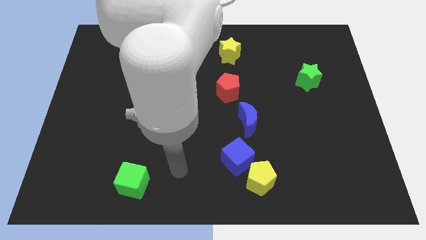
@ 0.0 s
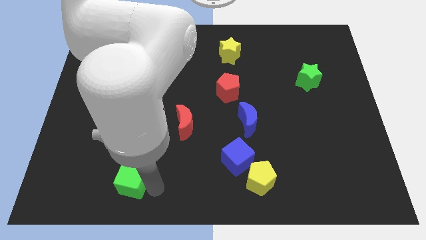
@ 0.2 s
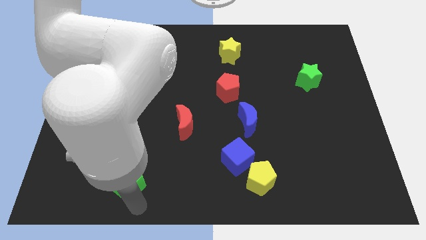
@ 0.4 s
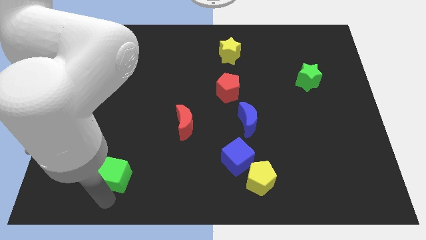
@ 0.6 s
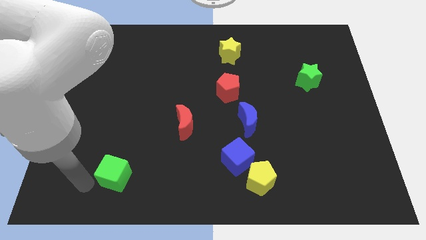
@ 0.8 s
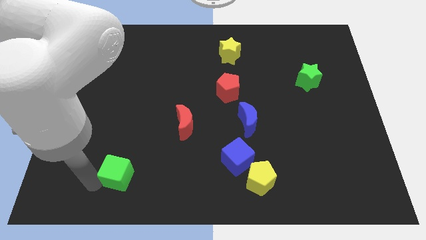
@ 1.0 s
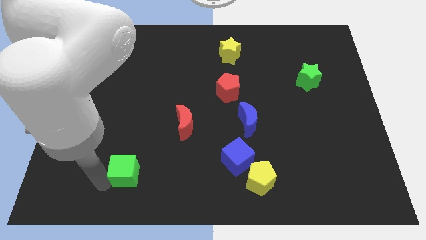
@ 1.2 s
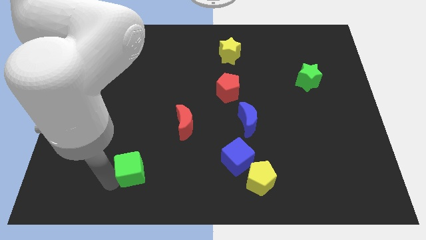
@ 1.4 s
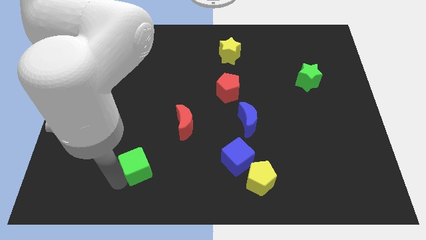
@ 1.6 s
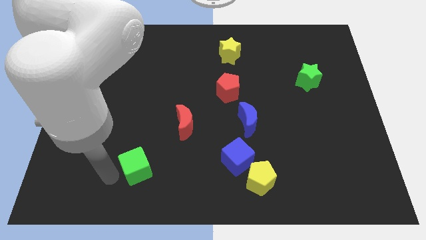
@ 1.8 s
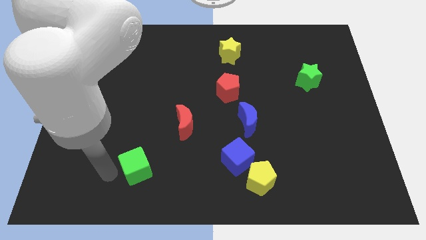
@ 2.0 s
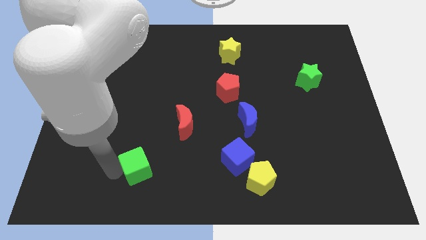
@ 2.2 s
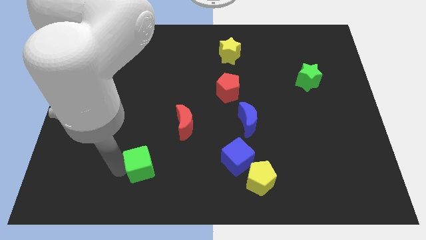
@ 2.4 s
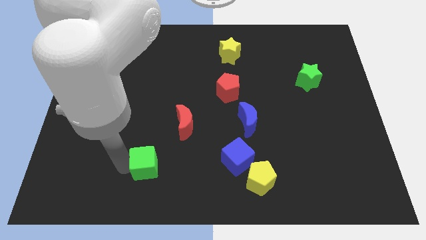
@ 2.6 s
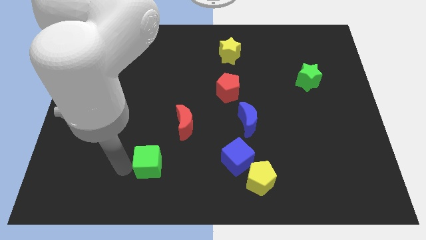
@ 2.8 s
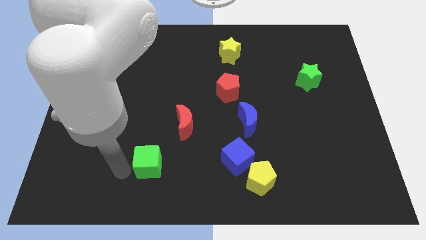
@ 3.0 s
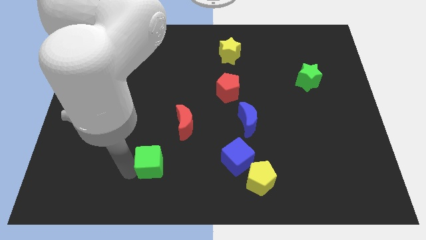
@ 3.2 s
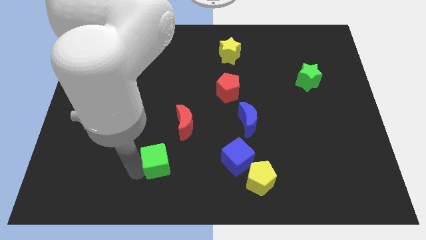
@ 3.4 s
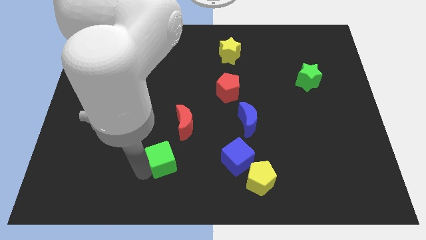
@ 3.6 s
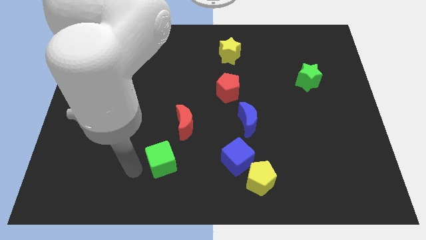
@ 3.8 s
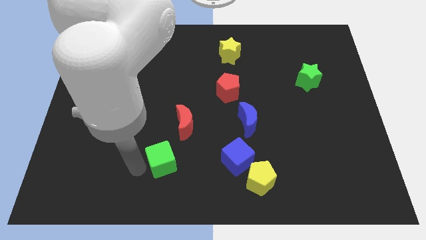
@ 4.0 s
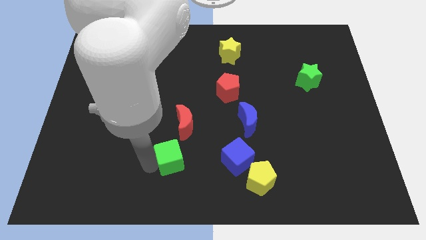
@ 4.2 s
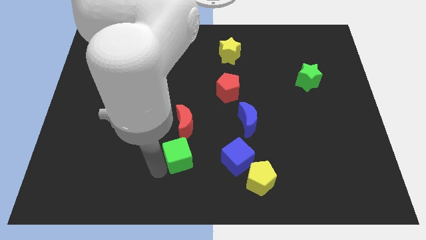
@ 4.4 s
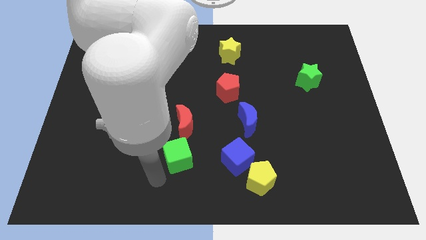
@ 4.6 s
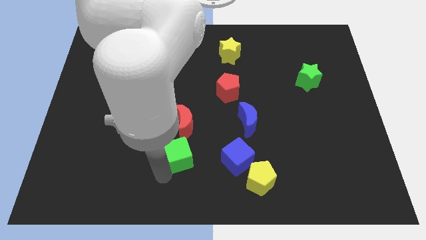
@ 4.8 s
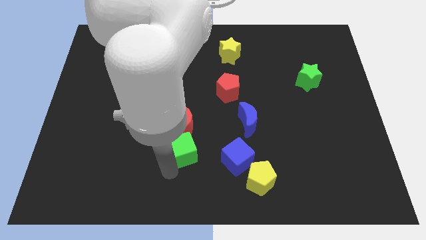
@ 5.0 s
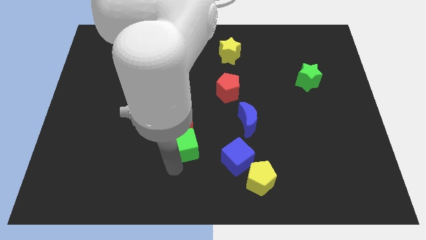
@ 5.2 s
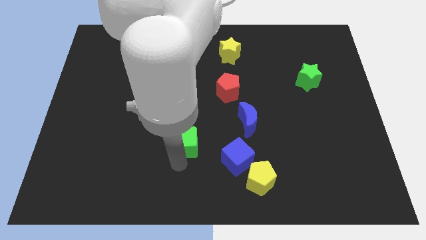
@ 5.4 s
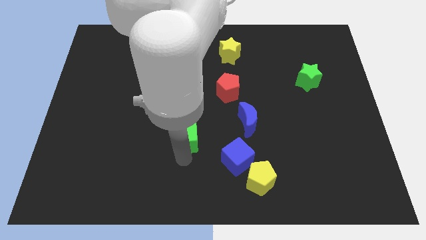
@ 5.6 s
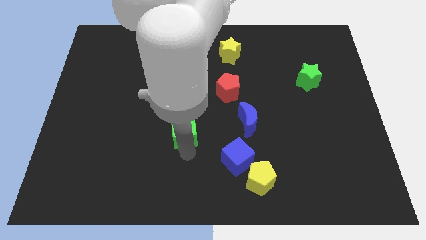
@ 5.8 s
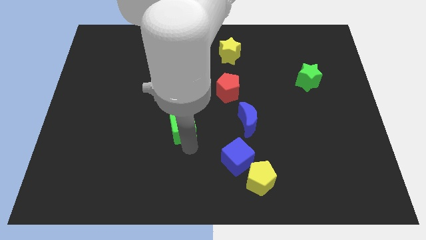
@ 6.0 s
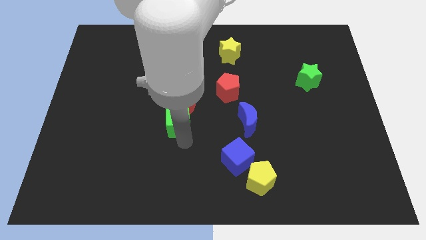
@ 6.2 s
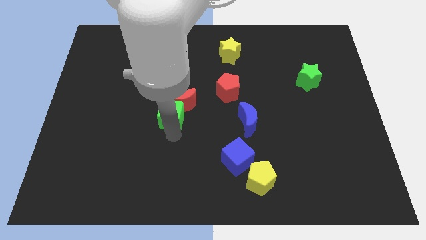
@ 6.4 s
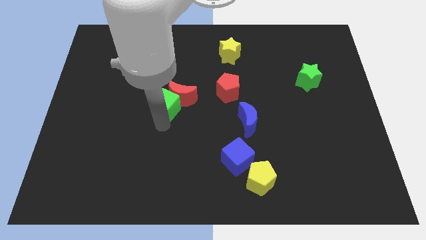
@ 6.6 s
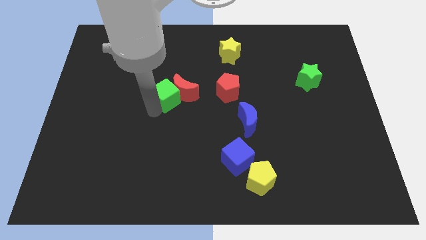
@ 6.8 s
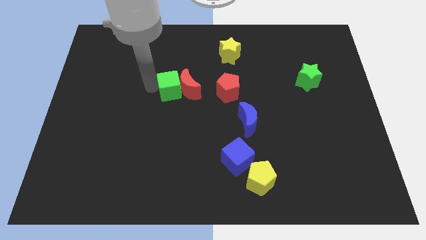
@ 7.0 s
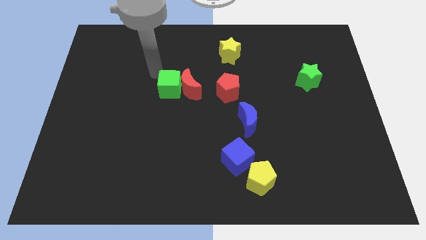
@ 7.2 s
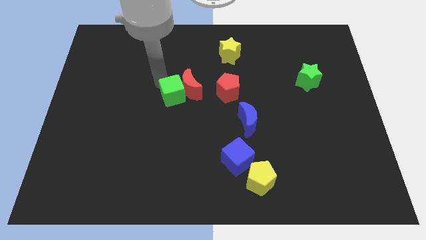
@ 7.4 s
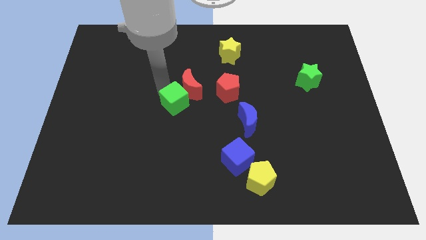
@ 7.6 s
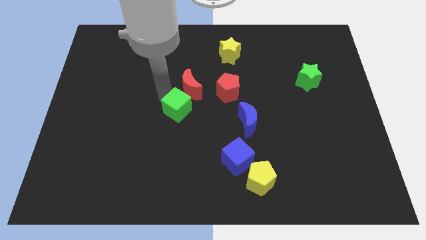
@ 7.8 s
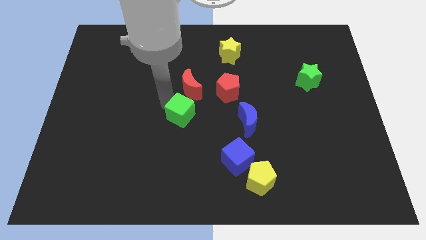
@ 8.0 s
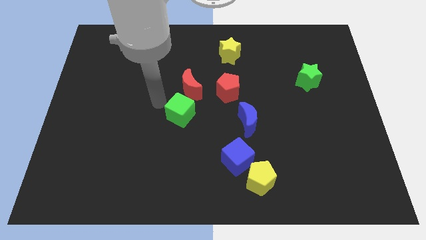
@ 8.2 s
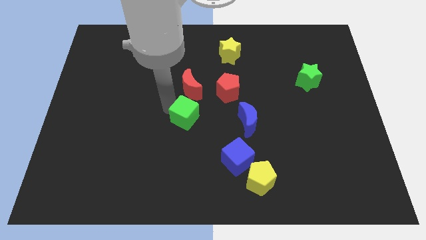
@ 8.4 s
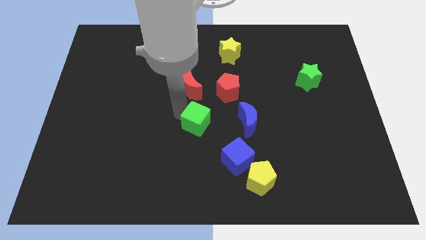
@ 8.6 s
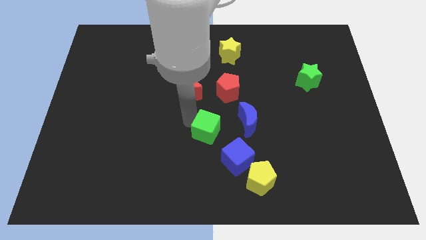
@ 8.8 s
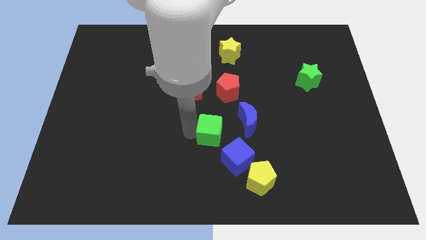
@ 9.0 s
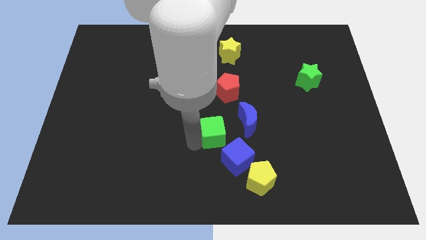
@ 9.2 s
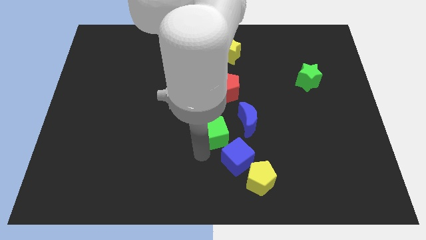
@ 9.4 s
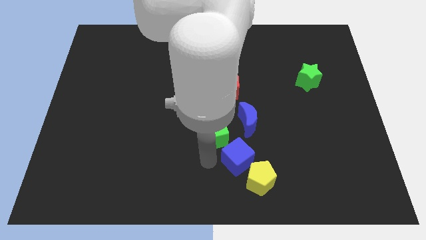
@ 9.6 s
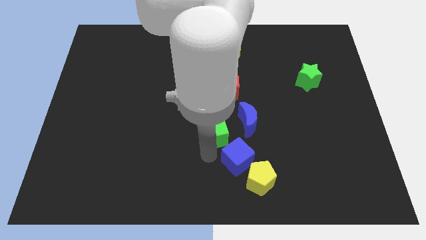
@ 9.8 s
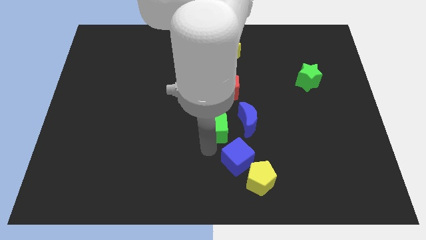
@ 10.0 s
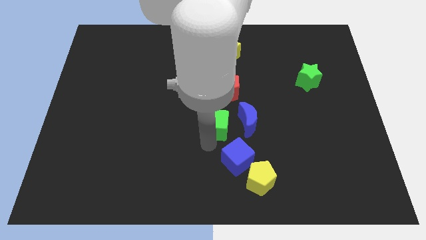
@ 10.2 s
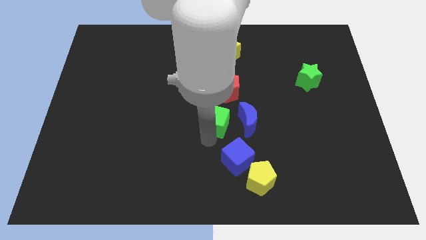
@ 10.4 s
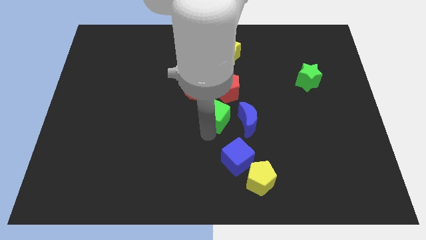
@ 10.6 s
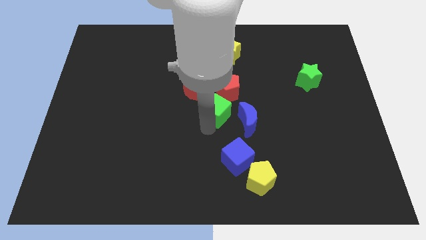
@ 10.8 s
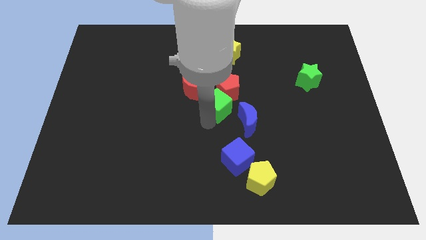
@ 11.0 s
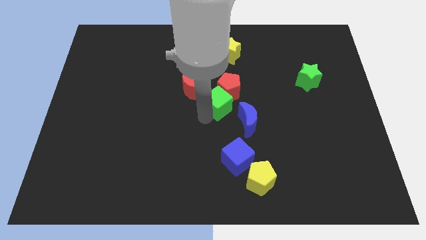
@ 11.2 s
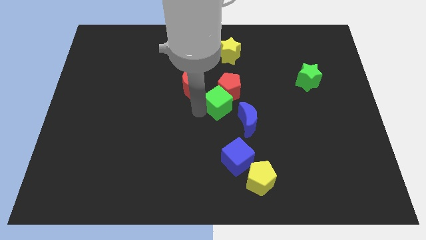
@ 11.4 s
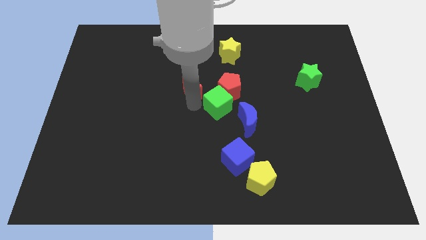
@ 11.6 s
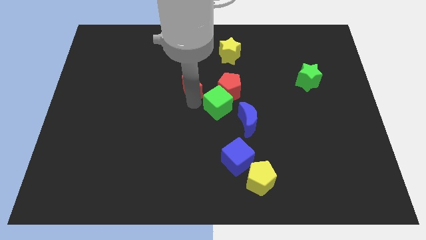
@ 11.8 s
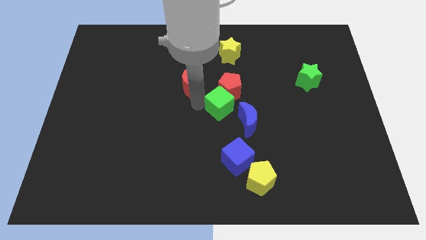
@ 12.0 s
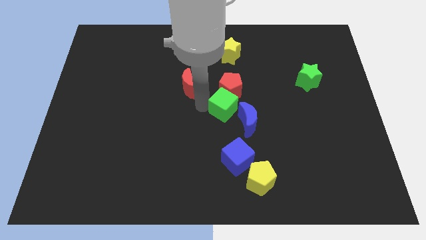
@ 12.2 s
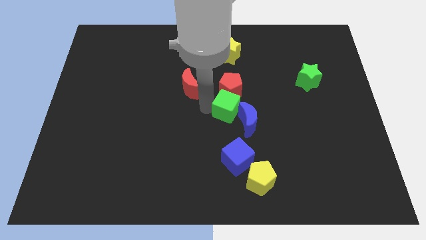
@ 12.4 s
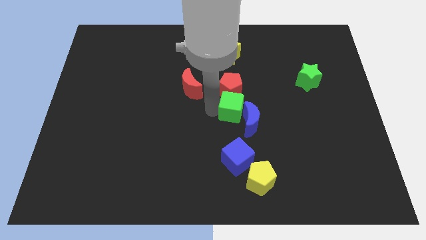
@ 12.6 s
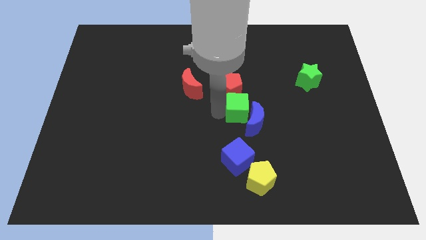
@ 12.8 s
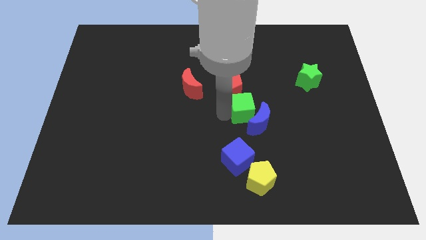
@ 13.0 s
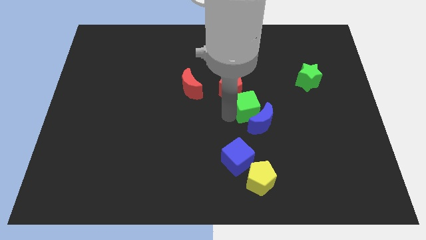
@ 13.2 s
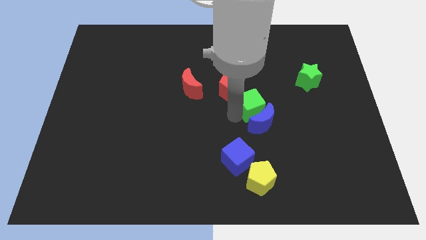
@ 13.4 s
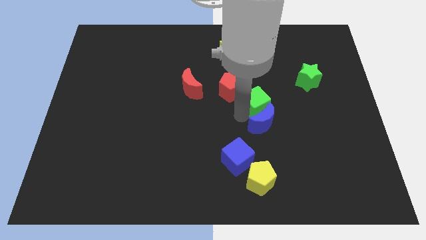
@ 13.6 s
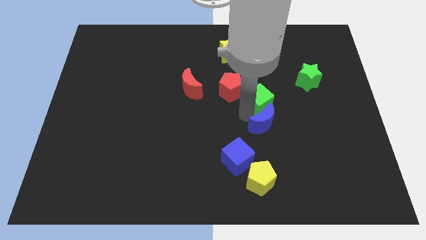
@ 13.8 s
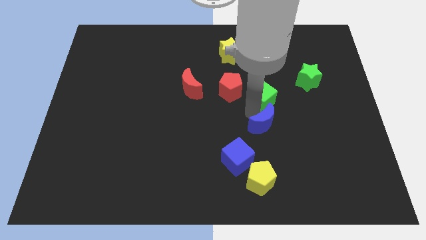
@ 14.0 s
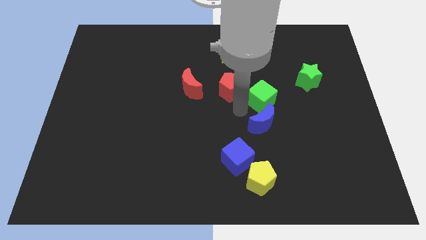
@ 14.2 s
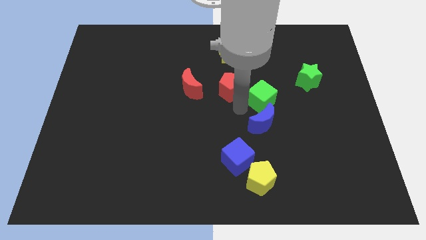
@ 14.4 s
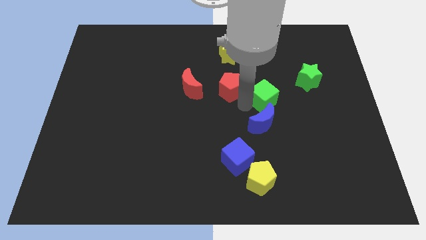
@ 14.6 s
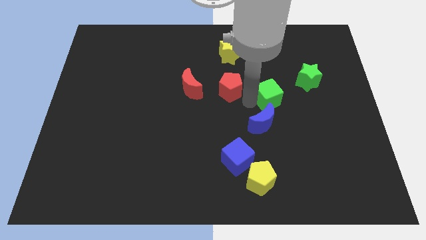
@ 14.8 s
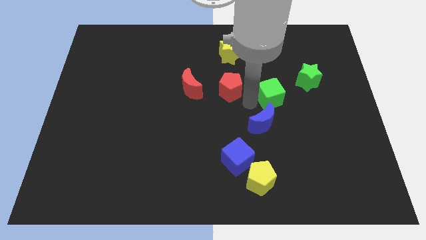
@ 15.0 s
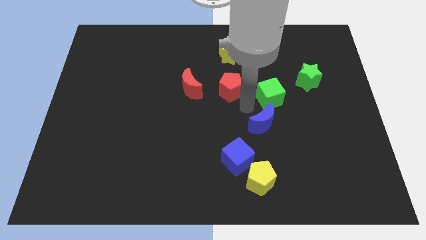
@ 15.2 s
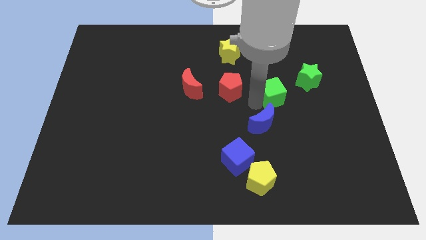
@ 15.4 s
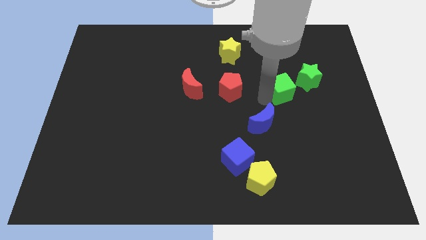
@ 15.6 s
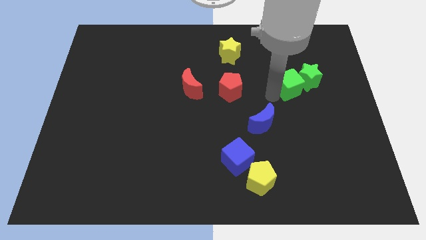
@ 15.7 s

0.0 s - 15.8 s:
put the green cube close to the green star
